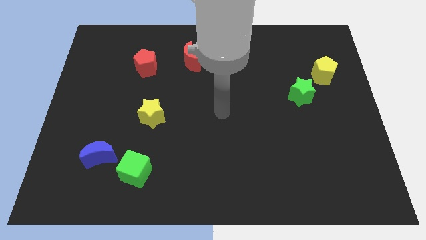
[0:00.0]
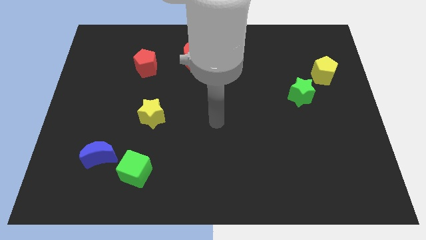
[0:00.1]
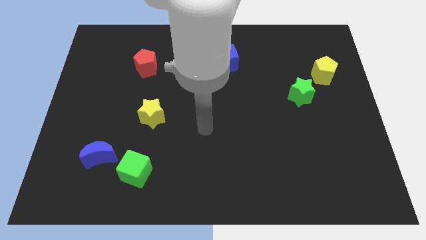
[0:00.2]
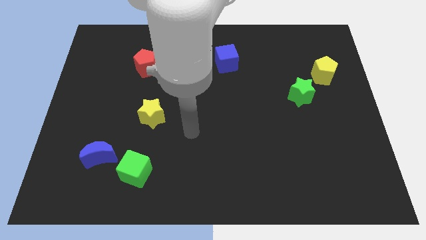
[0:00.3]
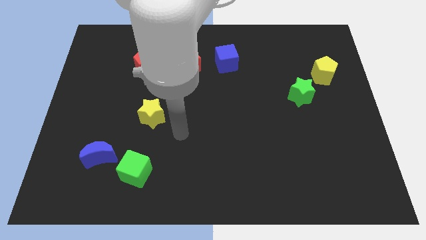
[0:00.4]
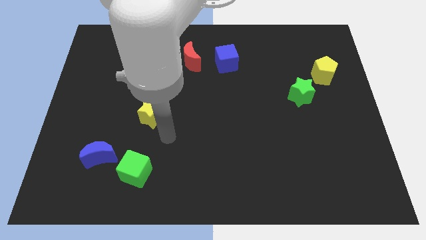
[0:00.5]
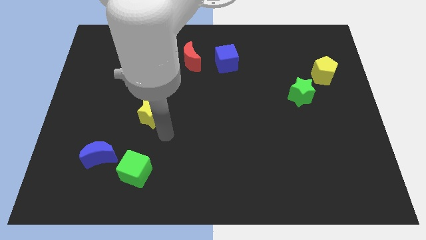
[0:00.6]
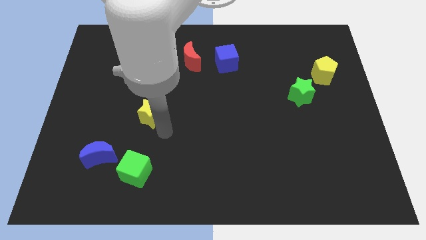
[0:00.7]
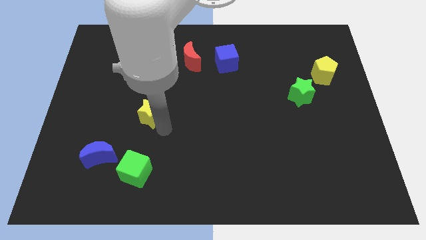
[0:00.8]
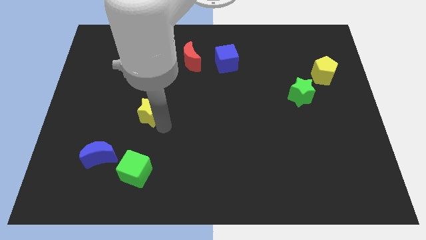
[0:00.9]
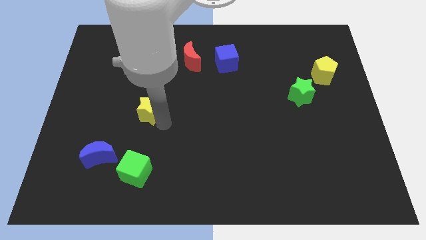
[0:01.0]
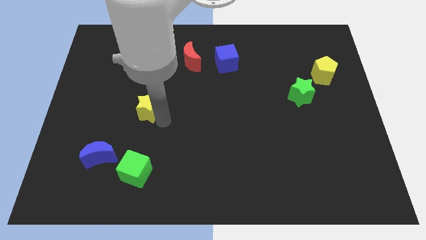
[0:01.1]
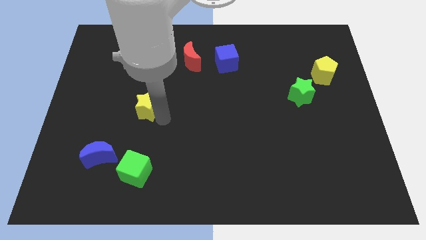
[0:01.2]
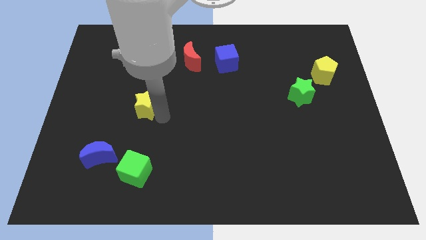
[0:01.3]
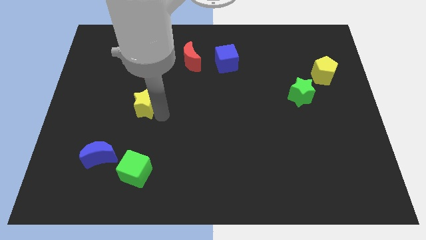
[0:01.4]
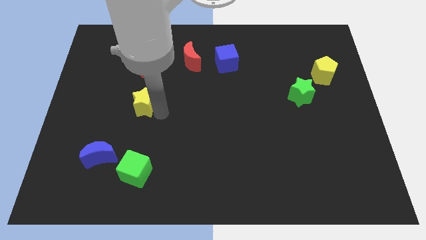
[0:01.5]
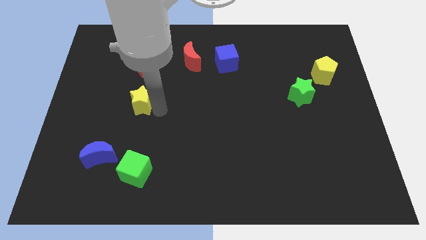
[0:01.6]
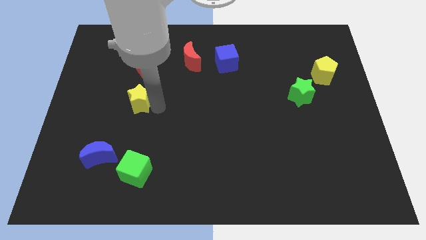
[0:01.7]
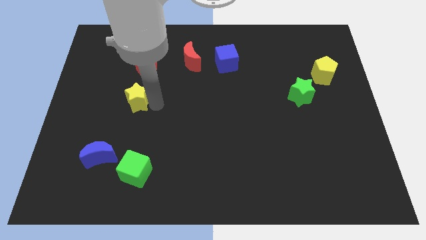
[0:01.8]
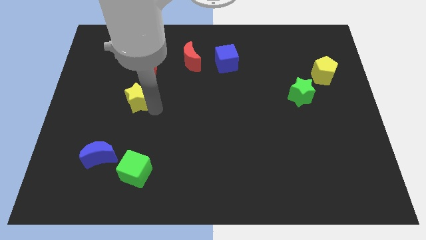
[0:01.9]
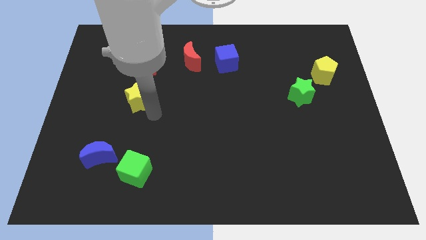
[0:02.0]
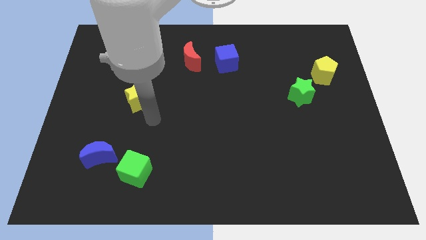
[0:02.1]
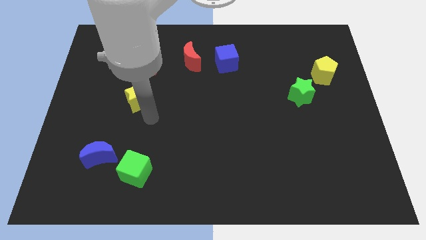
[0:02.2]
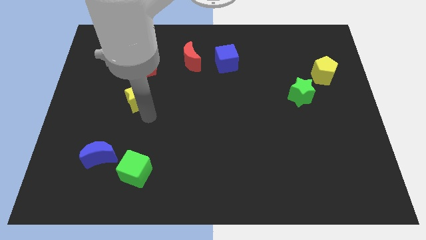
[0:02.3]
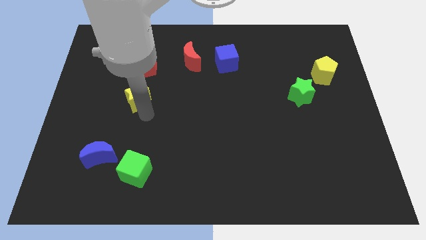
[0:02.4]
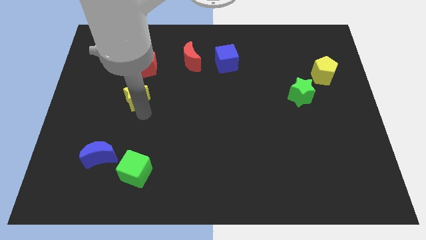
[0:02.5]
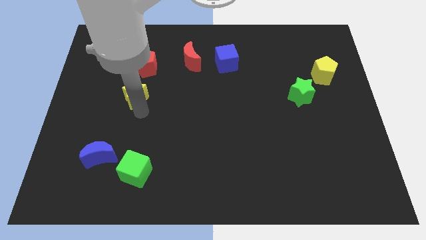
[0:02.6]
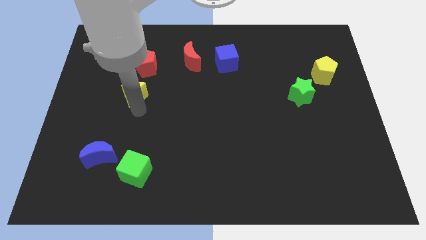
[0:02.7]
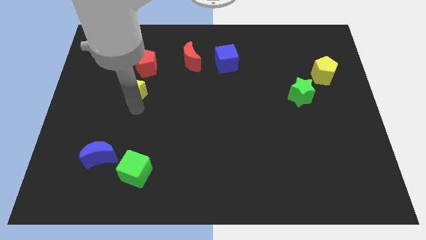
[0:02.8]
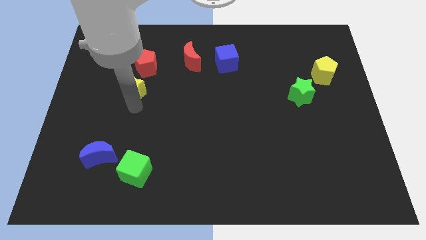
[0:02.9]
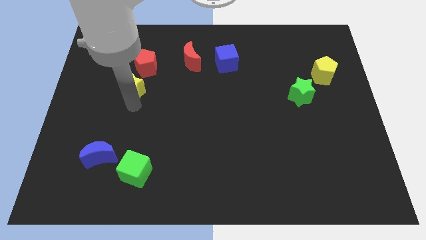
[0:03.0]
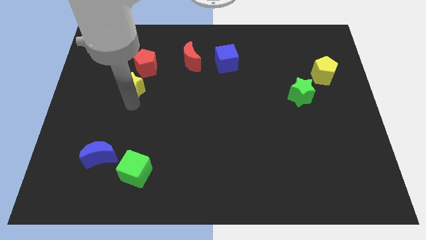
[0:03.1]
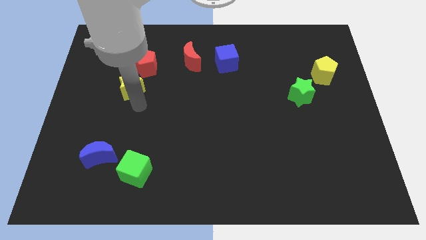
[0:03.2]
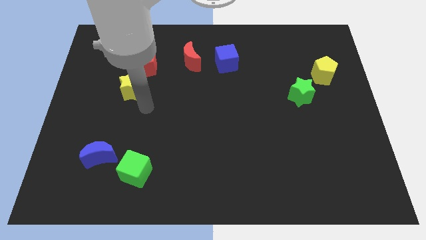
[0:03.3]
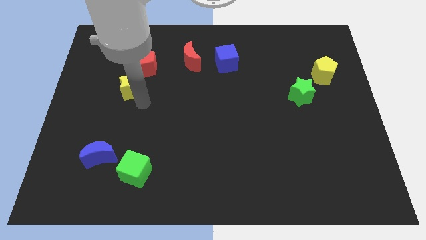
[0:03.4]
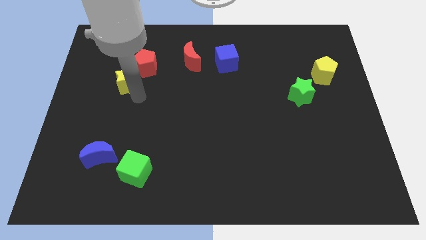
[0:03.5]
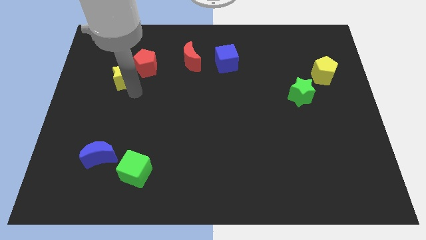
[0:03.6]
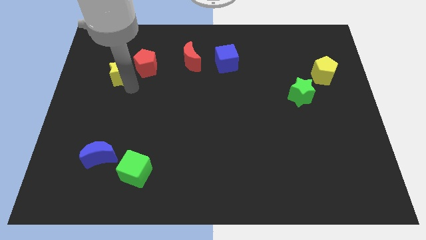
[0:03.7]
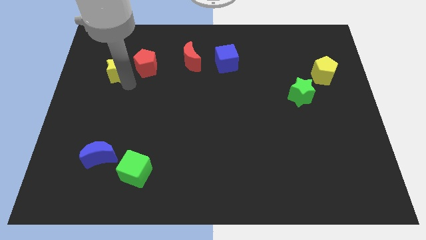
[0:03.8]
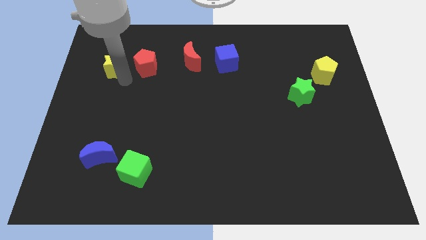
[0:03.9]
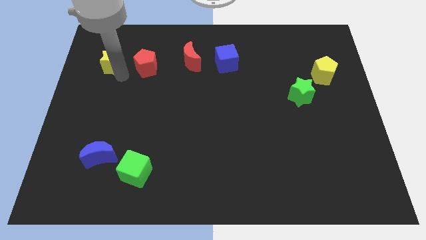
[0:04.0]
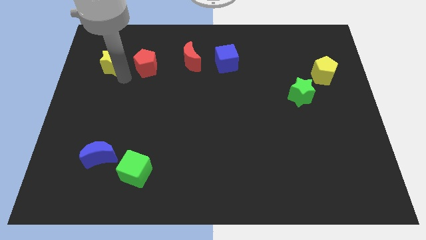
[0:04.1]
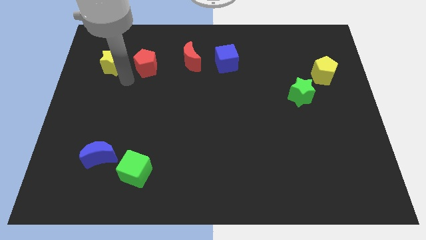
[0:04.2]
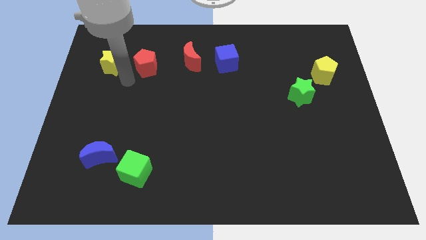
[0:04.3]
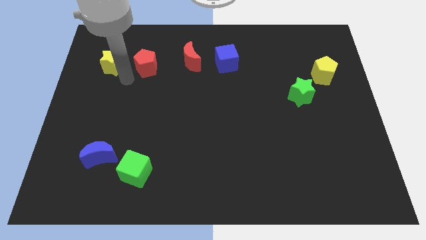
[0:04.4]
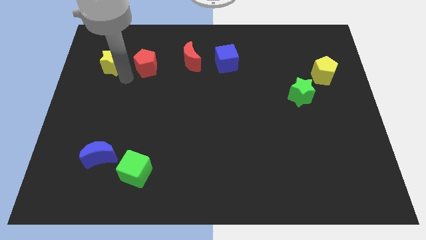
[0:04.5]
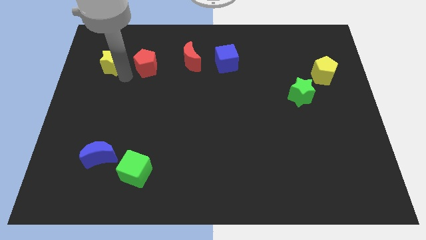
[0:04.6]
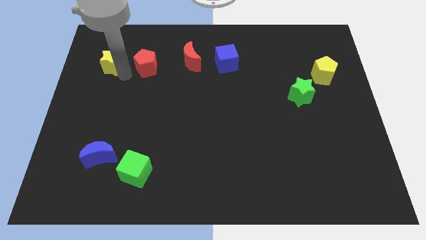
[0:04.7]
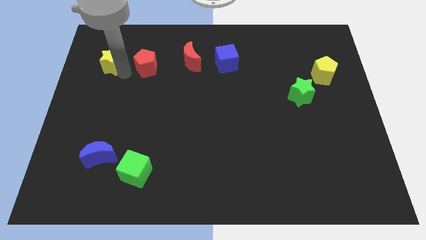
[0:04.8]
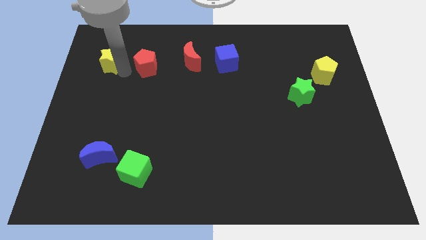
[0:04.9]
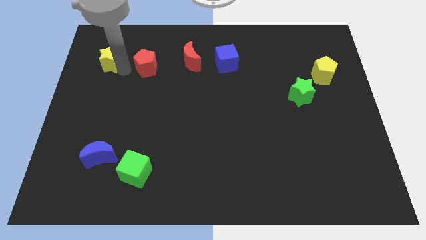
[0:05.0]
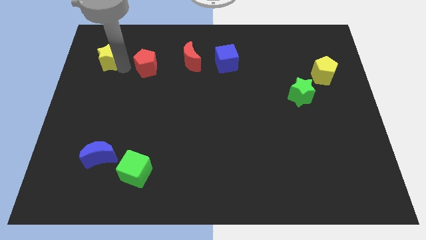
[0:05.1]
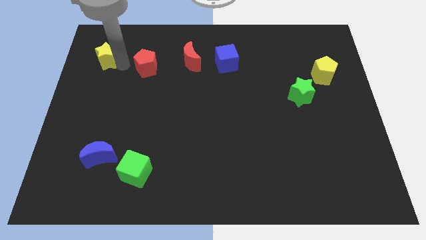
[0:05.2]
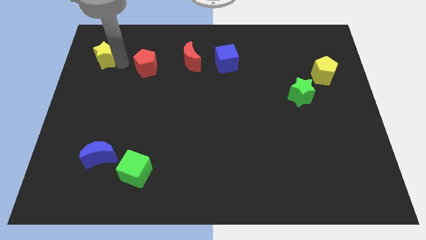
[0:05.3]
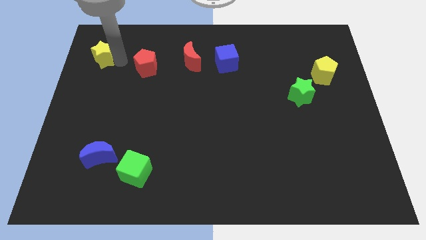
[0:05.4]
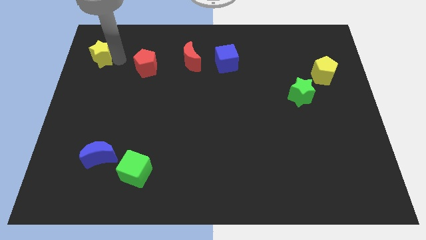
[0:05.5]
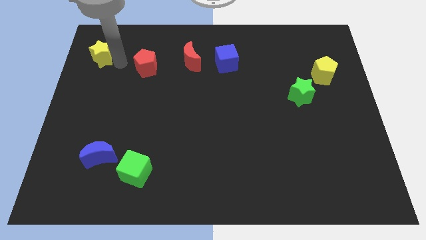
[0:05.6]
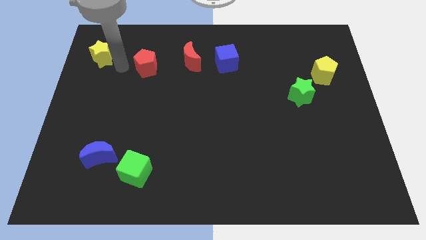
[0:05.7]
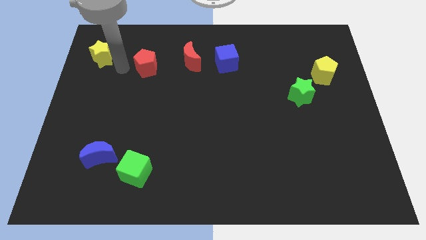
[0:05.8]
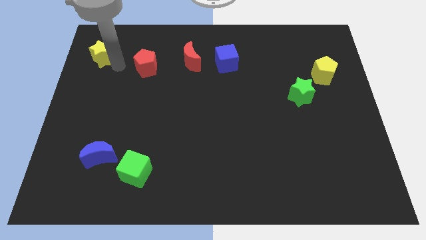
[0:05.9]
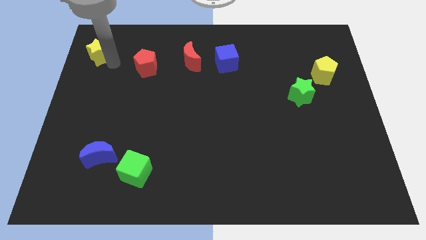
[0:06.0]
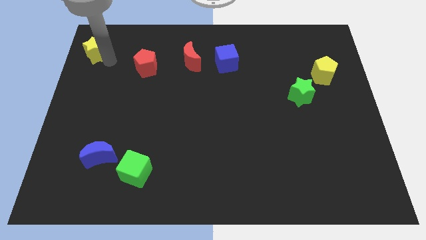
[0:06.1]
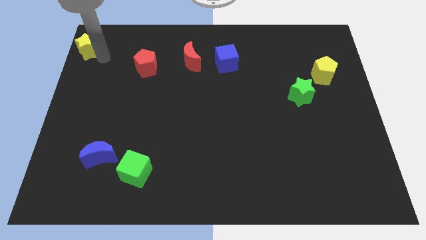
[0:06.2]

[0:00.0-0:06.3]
push the yellow star to the top left

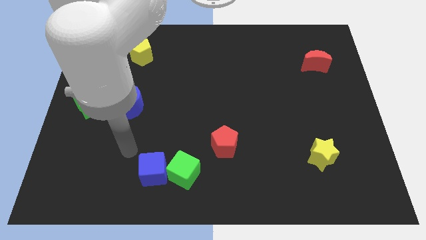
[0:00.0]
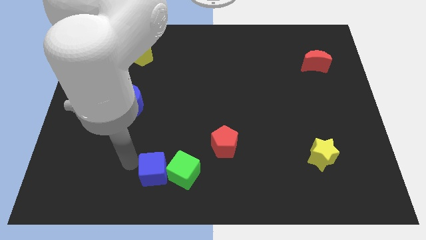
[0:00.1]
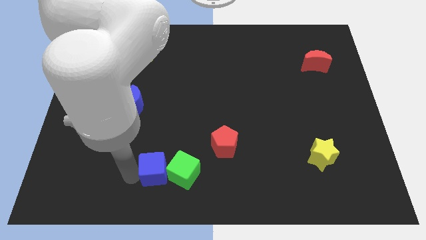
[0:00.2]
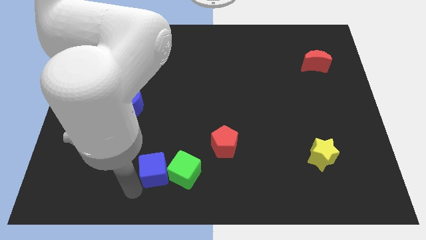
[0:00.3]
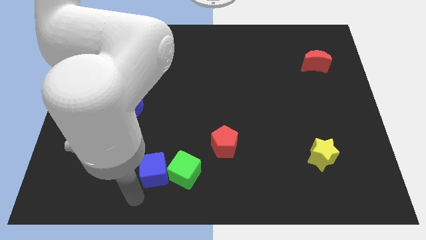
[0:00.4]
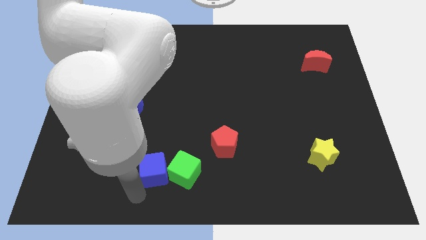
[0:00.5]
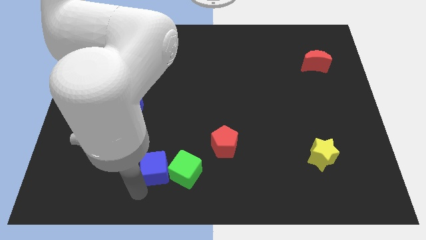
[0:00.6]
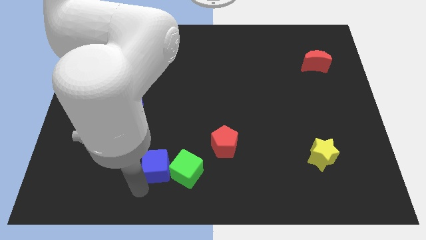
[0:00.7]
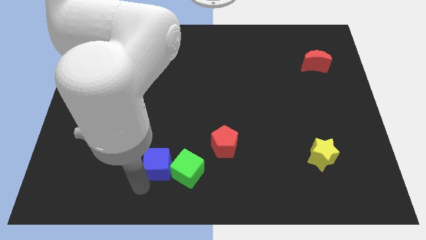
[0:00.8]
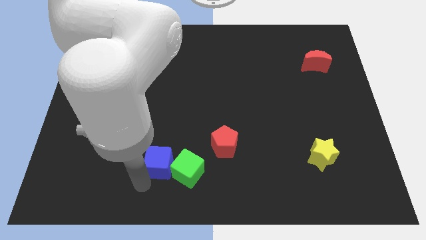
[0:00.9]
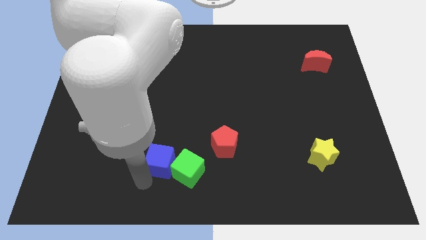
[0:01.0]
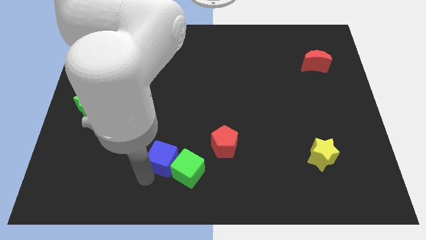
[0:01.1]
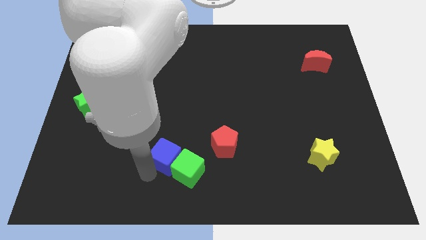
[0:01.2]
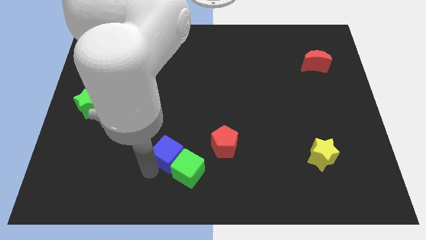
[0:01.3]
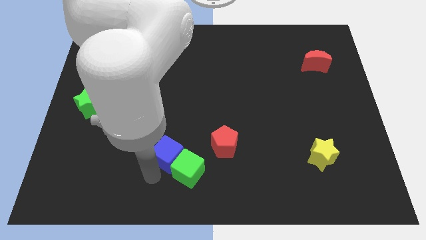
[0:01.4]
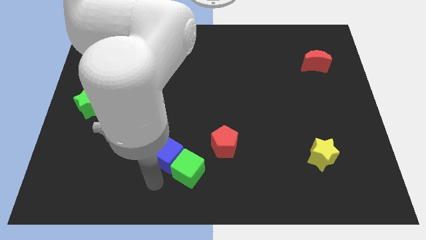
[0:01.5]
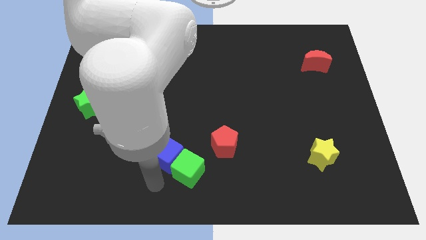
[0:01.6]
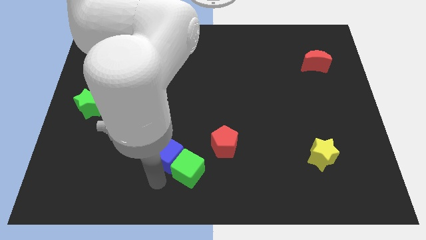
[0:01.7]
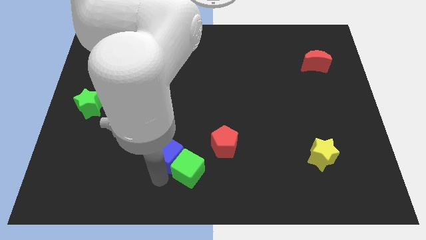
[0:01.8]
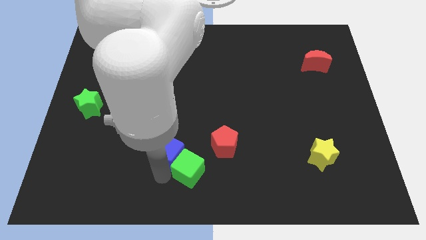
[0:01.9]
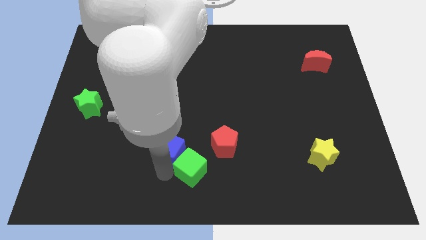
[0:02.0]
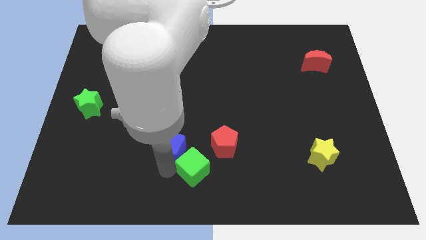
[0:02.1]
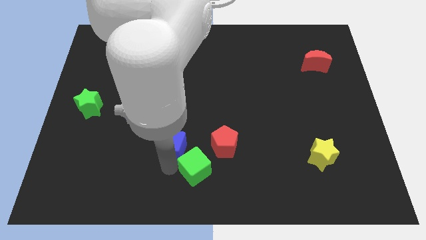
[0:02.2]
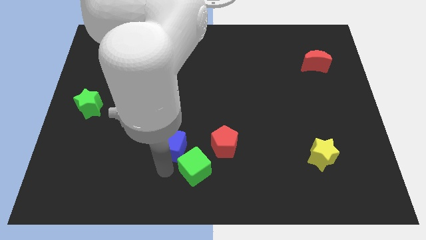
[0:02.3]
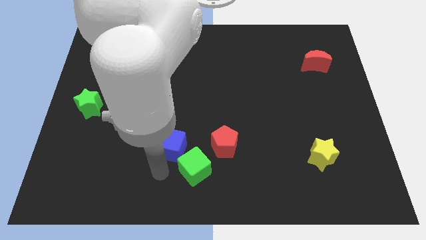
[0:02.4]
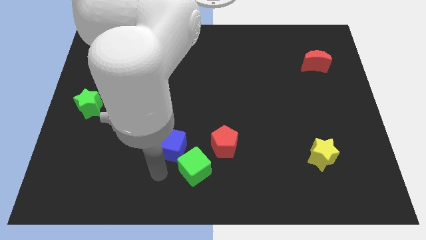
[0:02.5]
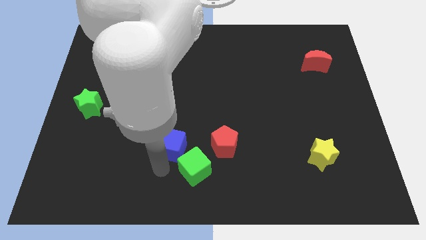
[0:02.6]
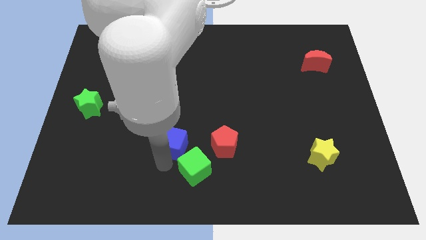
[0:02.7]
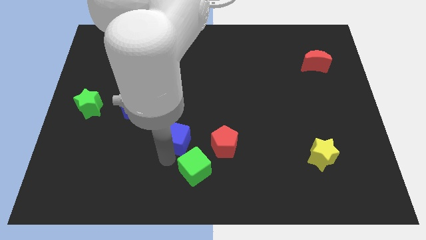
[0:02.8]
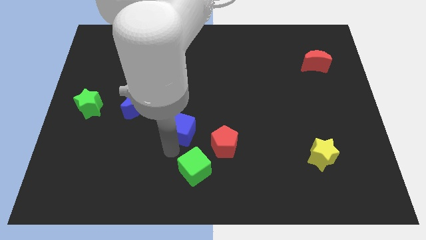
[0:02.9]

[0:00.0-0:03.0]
push the blue cube to the center of the board
